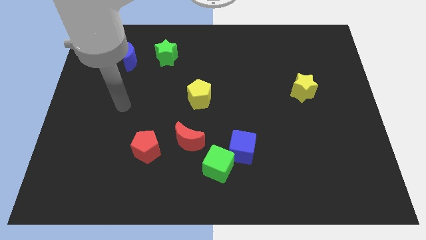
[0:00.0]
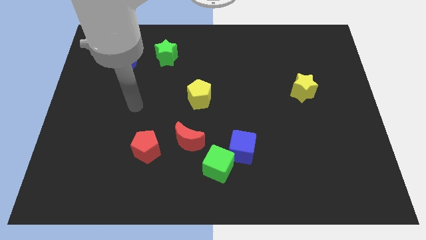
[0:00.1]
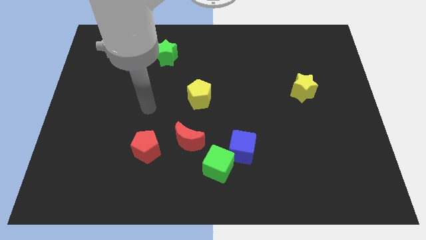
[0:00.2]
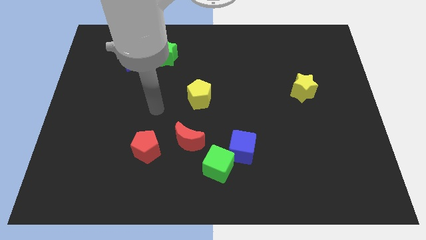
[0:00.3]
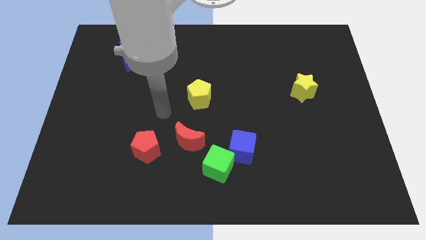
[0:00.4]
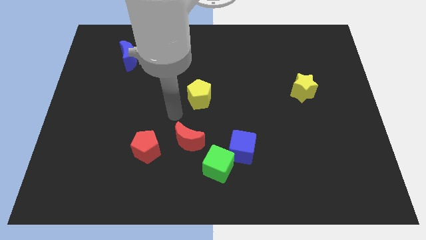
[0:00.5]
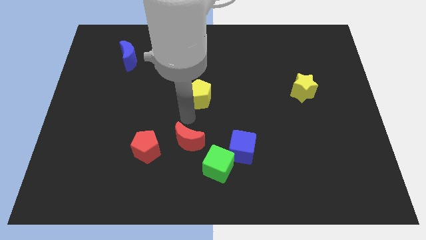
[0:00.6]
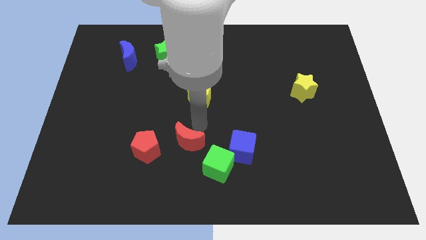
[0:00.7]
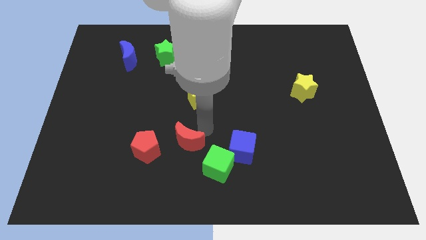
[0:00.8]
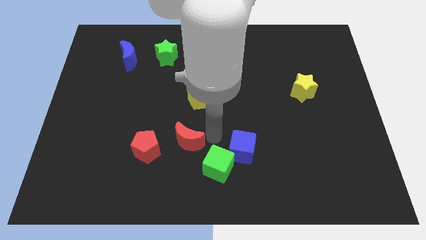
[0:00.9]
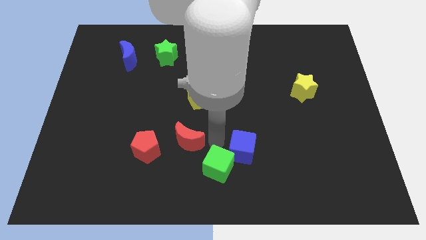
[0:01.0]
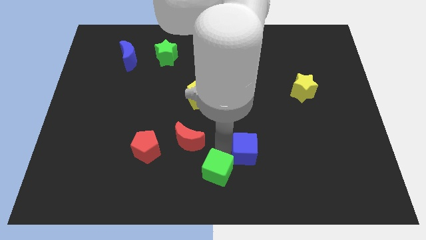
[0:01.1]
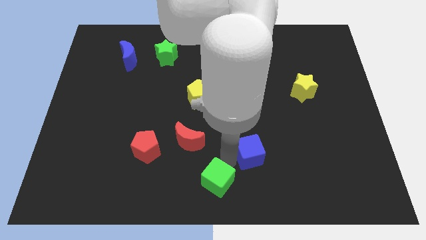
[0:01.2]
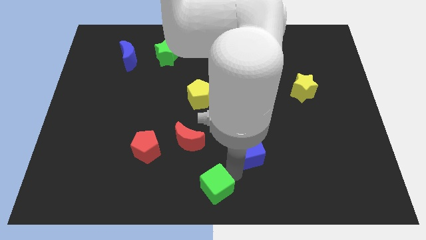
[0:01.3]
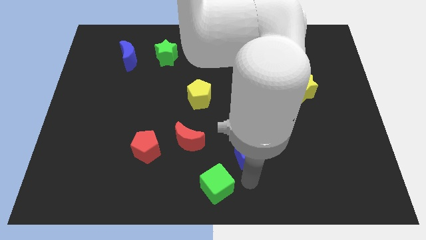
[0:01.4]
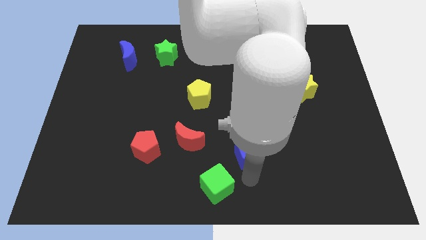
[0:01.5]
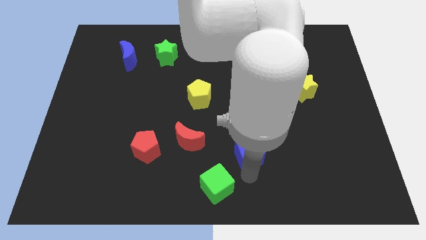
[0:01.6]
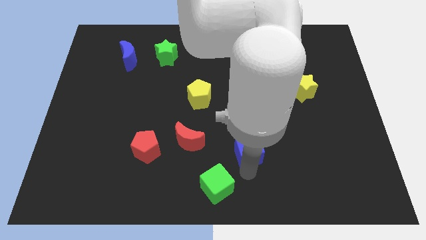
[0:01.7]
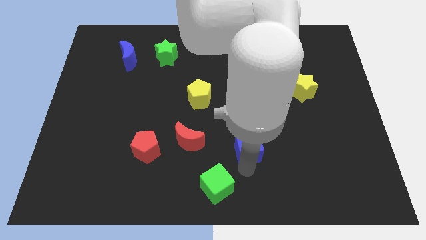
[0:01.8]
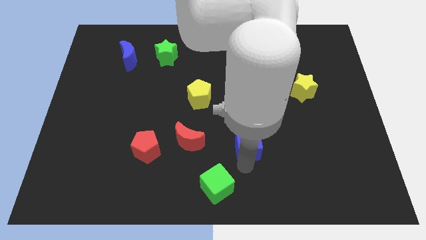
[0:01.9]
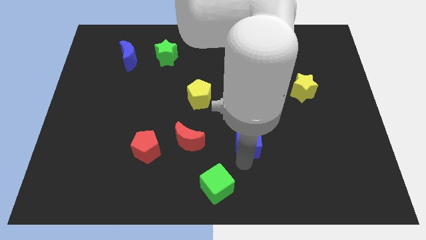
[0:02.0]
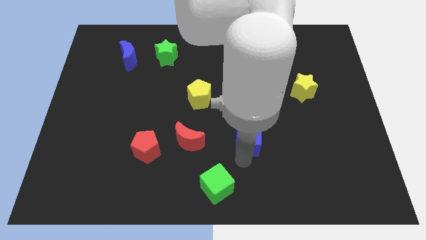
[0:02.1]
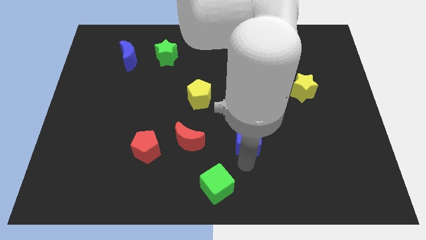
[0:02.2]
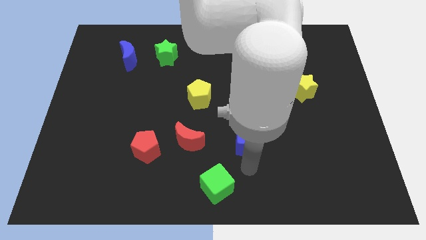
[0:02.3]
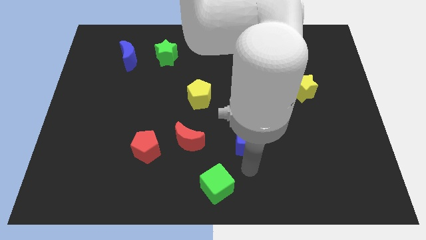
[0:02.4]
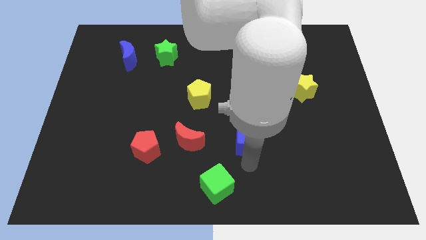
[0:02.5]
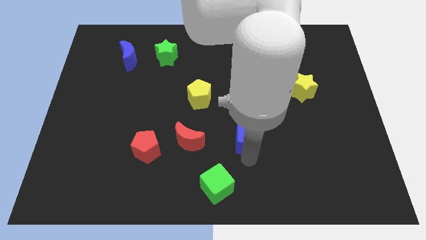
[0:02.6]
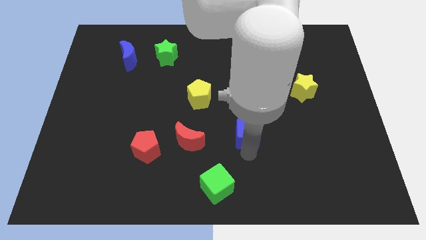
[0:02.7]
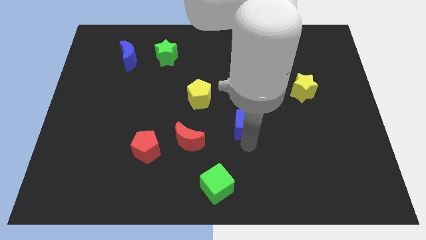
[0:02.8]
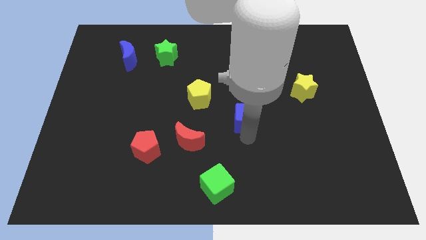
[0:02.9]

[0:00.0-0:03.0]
push the blue cube up somewhat

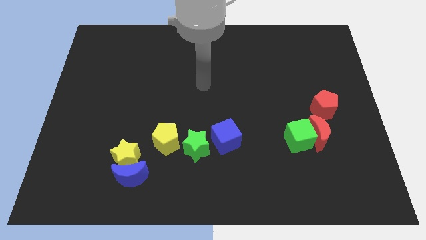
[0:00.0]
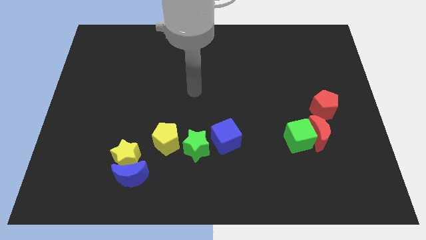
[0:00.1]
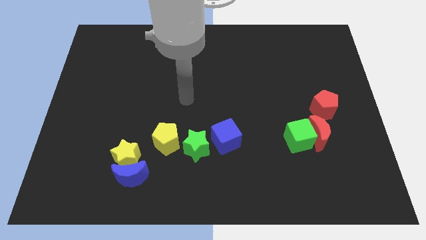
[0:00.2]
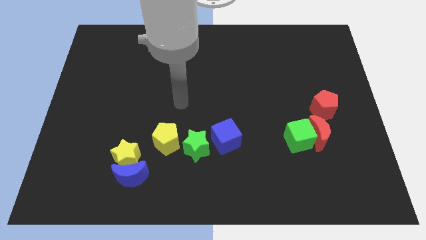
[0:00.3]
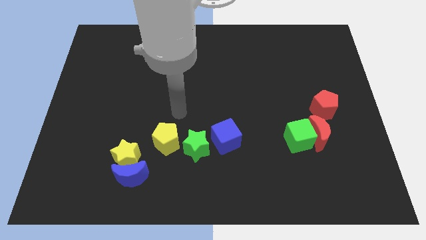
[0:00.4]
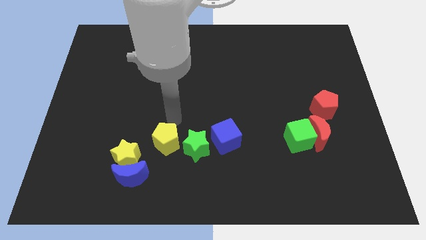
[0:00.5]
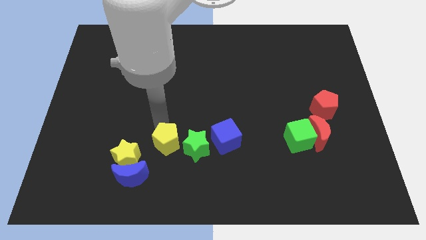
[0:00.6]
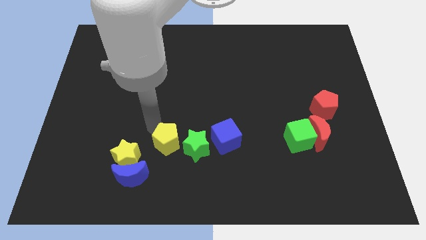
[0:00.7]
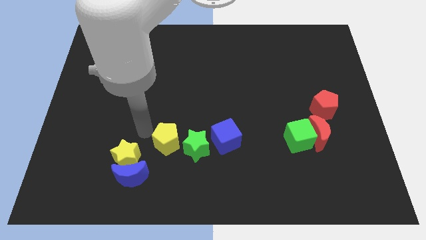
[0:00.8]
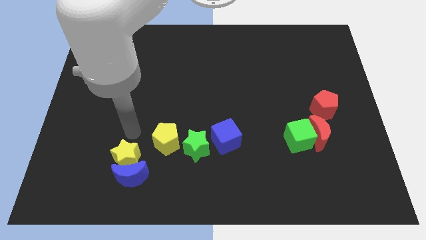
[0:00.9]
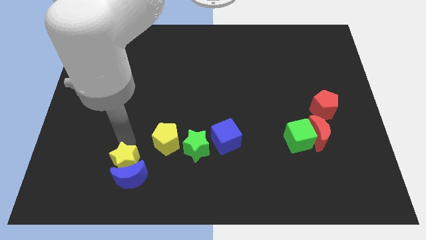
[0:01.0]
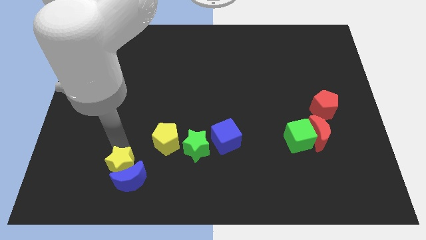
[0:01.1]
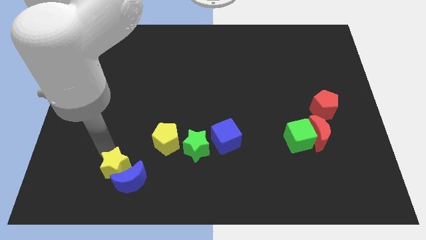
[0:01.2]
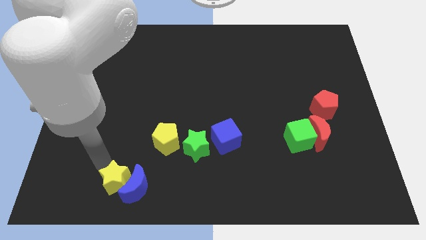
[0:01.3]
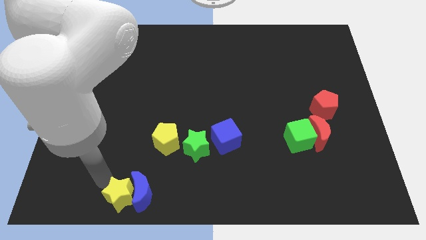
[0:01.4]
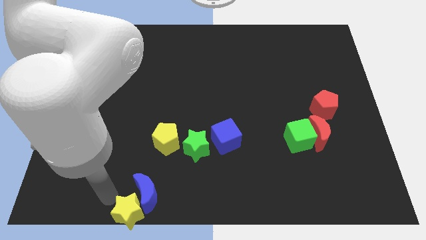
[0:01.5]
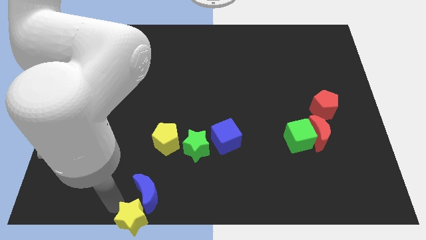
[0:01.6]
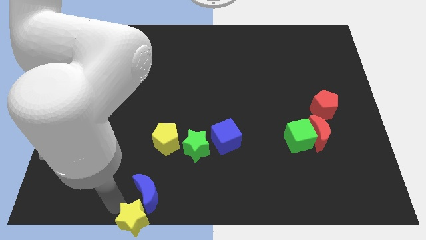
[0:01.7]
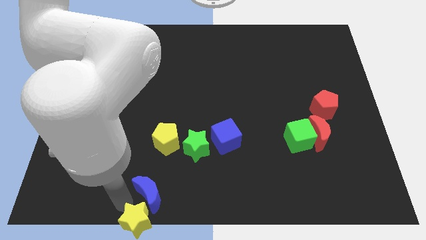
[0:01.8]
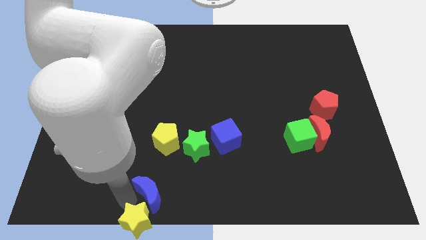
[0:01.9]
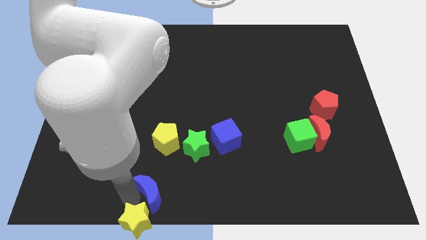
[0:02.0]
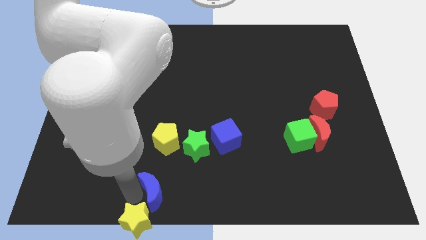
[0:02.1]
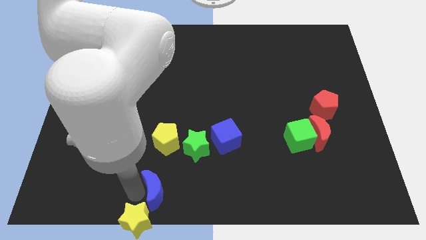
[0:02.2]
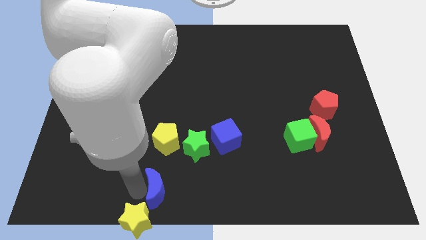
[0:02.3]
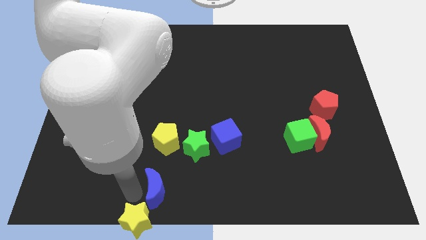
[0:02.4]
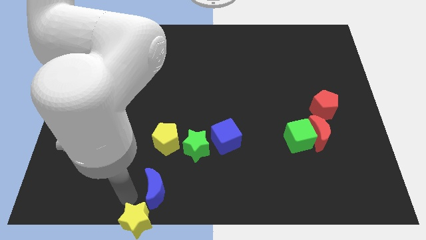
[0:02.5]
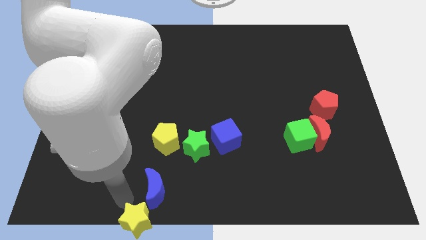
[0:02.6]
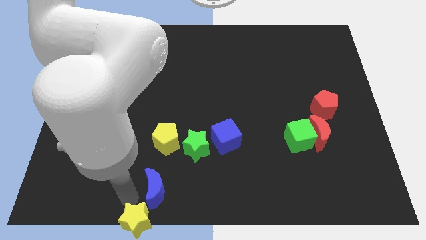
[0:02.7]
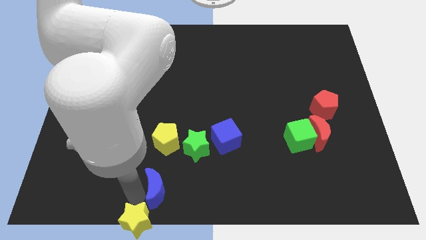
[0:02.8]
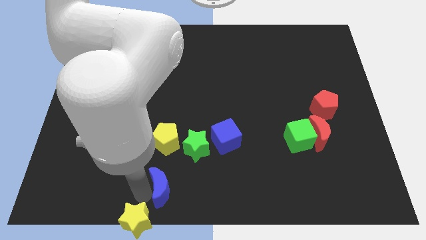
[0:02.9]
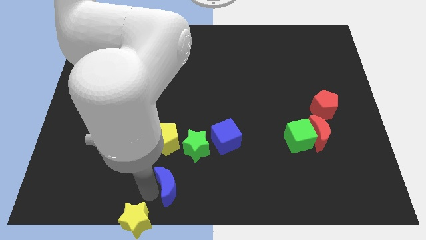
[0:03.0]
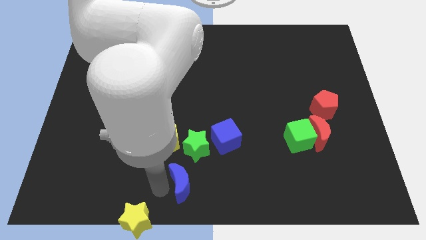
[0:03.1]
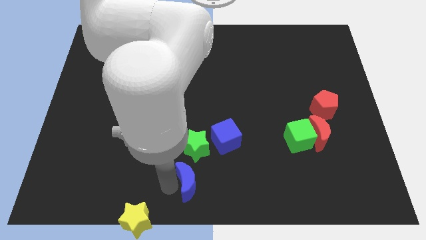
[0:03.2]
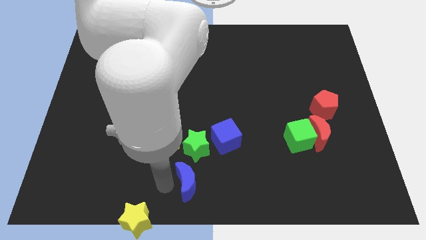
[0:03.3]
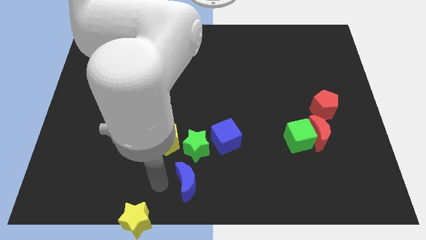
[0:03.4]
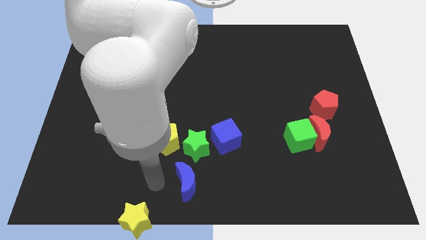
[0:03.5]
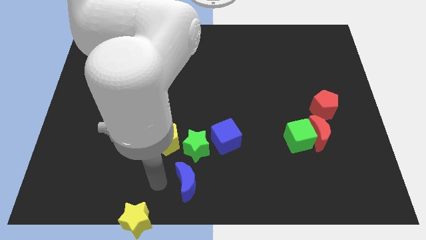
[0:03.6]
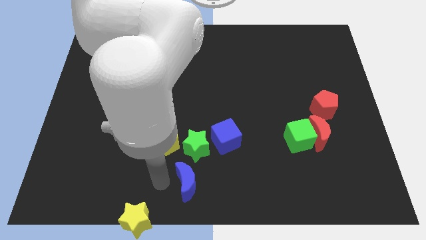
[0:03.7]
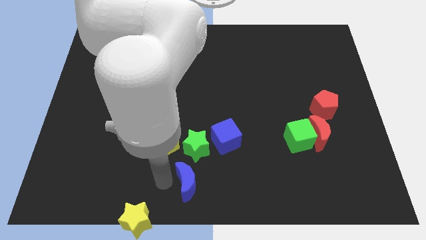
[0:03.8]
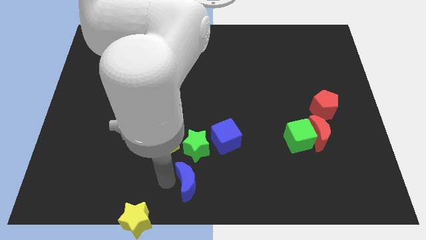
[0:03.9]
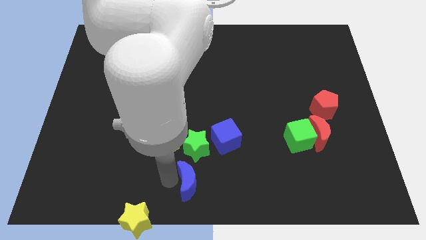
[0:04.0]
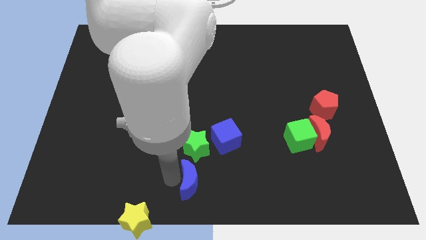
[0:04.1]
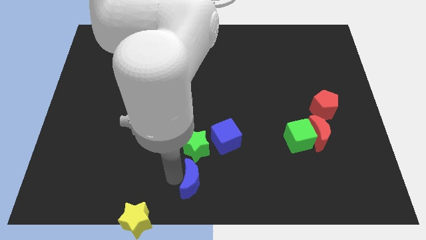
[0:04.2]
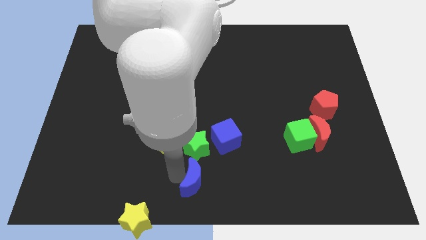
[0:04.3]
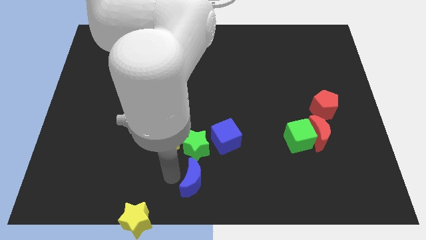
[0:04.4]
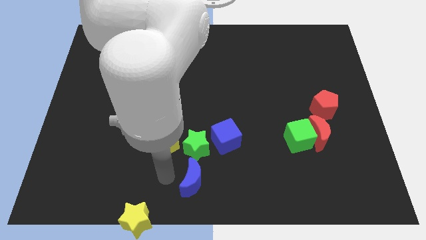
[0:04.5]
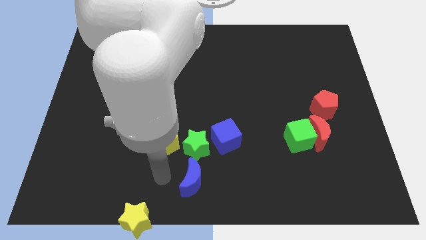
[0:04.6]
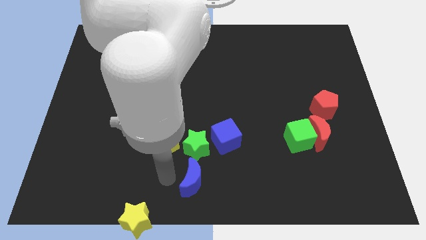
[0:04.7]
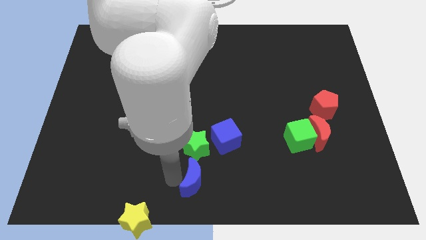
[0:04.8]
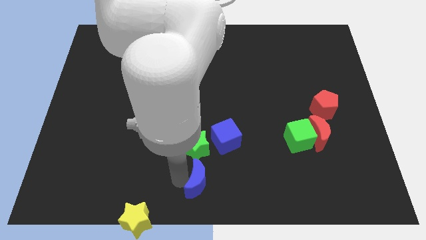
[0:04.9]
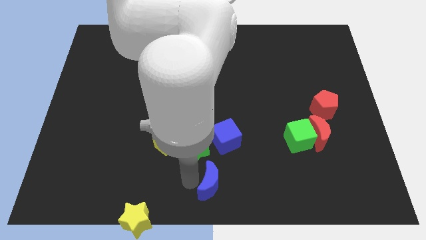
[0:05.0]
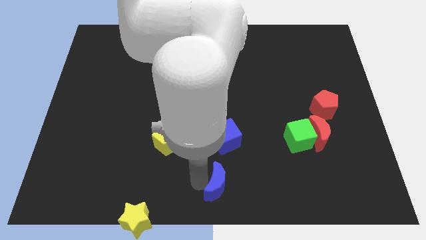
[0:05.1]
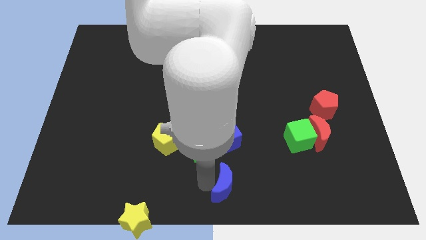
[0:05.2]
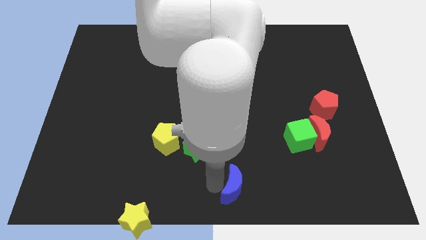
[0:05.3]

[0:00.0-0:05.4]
move the blue moon right

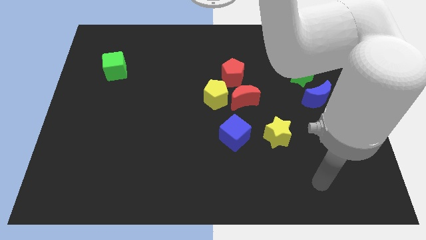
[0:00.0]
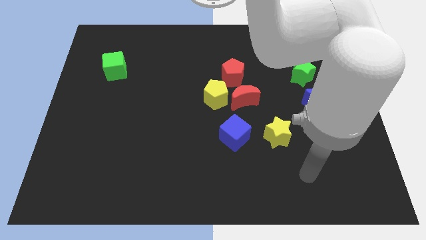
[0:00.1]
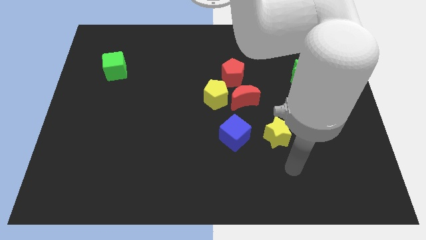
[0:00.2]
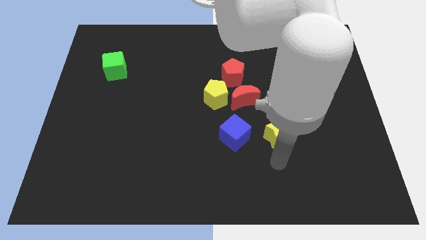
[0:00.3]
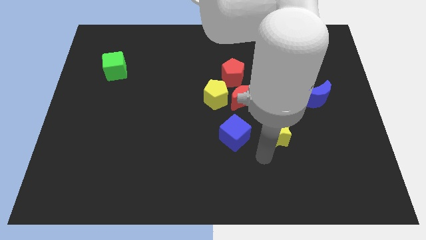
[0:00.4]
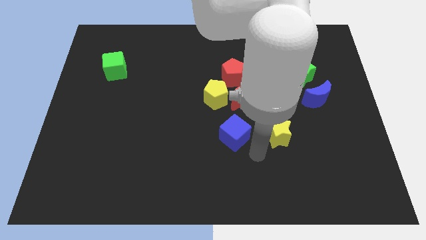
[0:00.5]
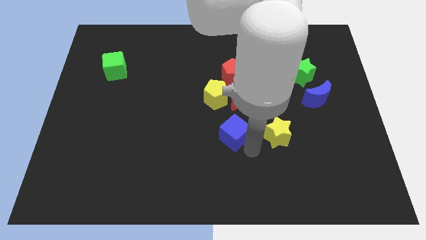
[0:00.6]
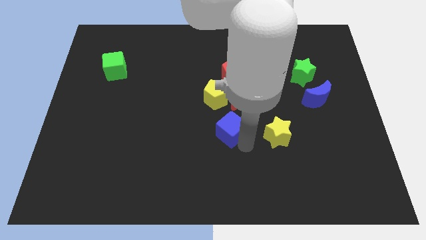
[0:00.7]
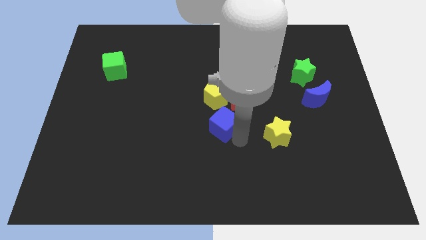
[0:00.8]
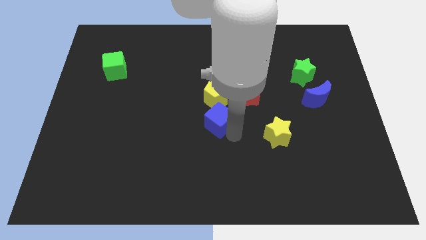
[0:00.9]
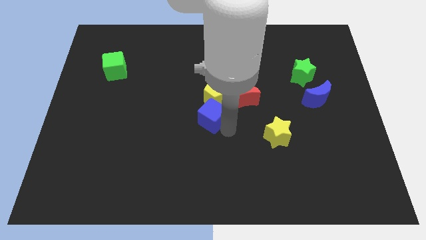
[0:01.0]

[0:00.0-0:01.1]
slightly push the blue cube upwards and left diagonally
